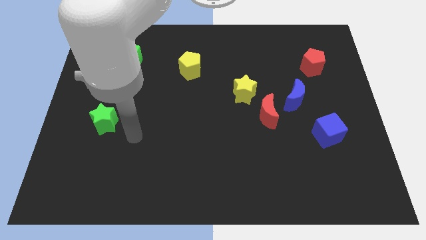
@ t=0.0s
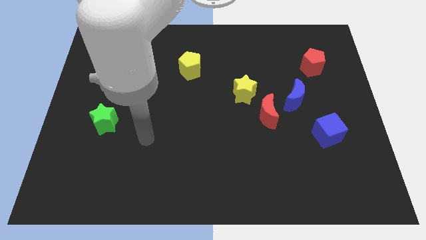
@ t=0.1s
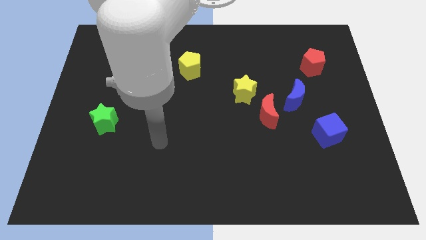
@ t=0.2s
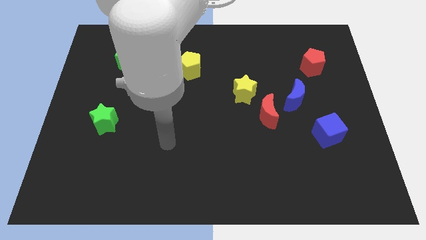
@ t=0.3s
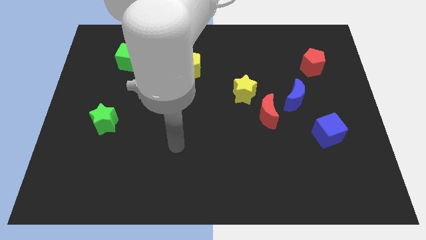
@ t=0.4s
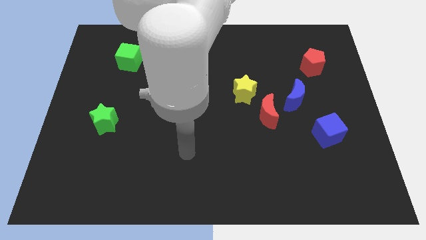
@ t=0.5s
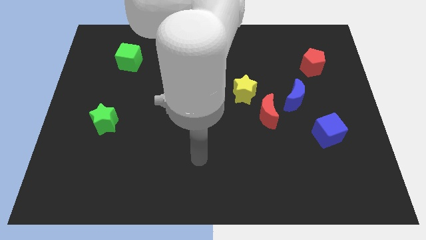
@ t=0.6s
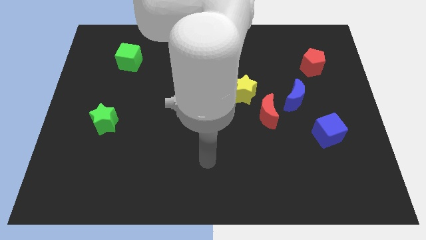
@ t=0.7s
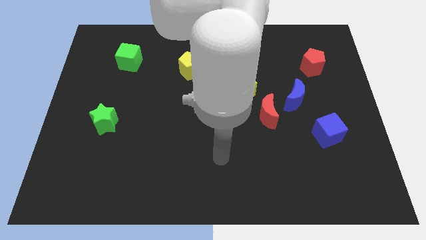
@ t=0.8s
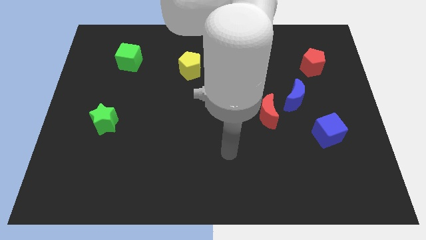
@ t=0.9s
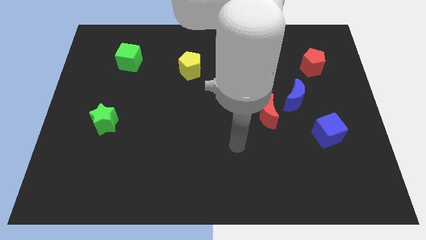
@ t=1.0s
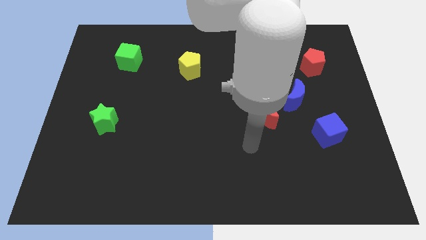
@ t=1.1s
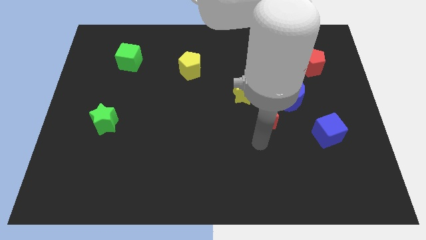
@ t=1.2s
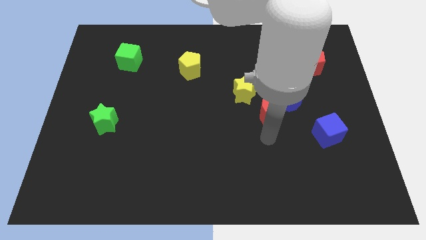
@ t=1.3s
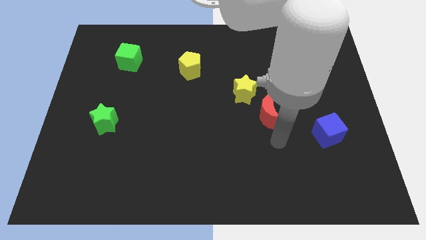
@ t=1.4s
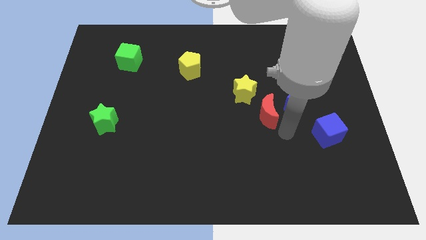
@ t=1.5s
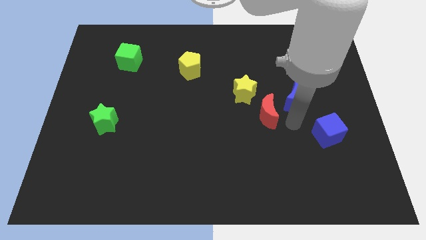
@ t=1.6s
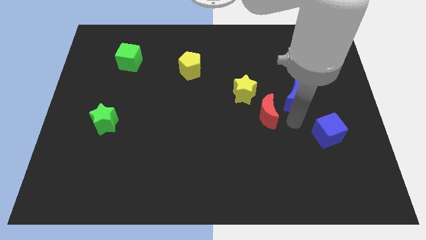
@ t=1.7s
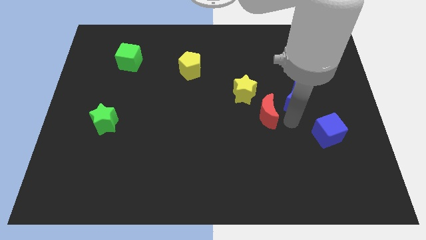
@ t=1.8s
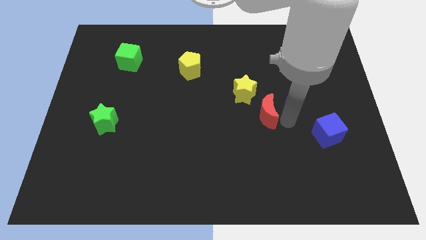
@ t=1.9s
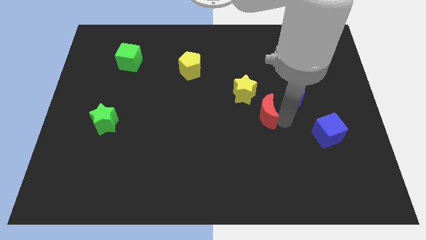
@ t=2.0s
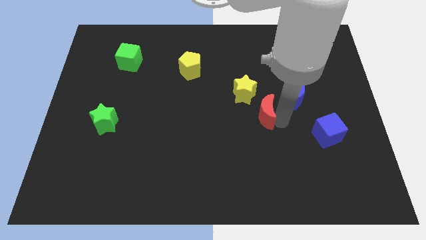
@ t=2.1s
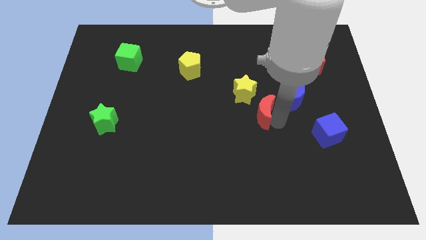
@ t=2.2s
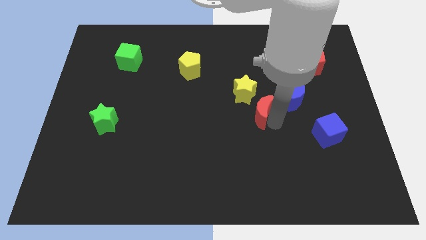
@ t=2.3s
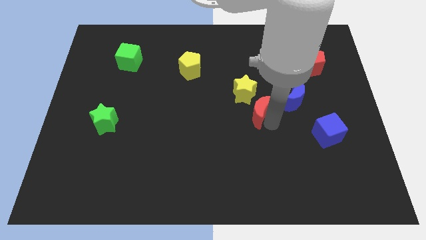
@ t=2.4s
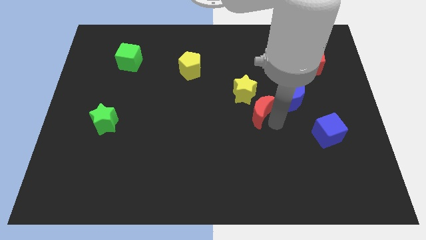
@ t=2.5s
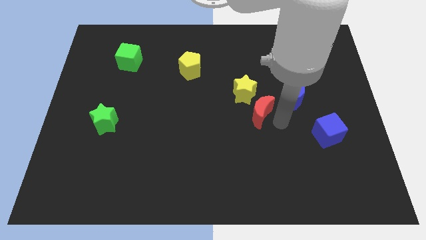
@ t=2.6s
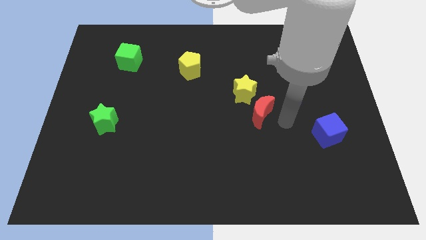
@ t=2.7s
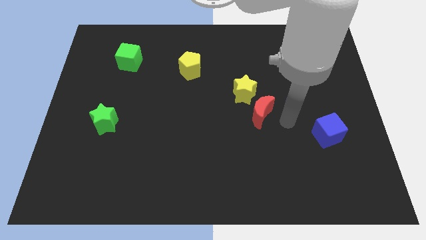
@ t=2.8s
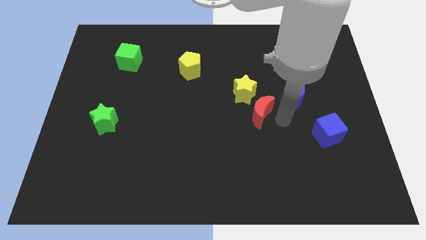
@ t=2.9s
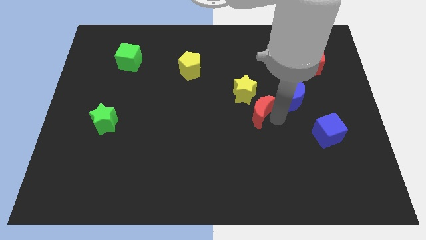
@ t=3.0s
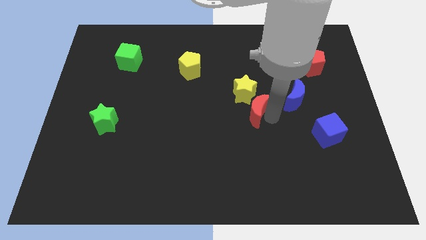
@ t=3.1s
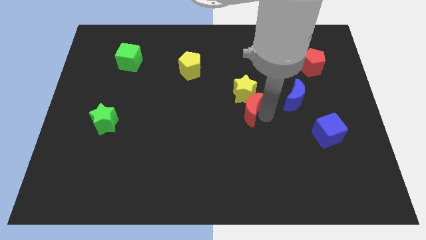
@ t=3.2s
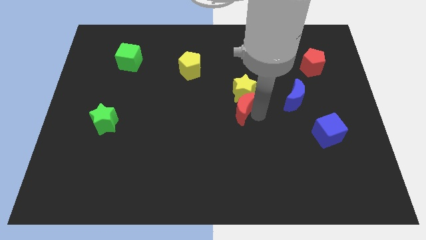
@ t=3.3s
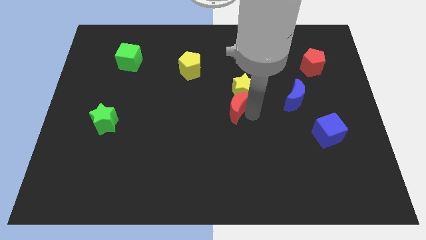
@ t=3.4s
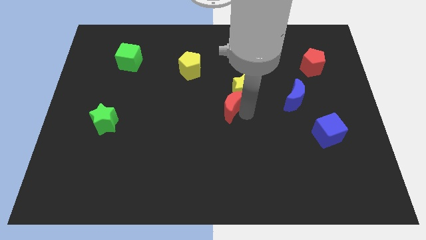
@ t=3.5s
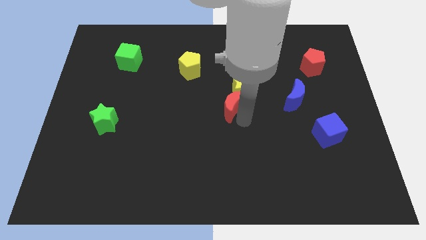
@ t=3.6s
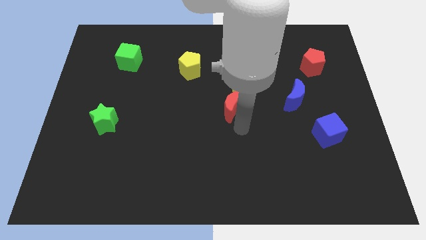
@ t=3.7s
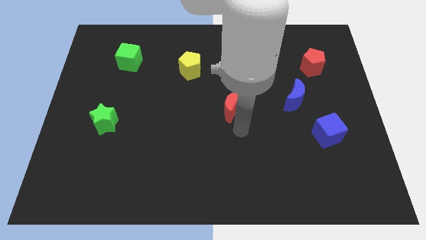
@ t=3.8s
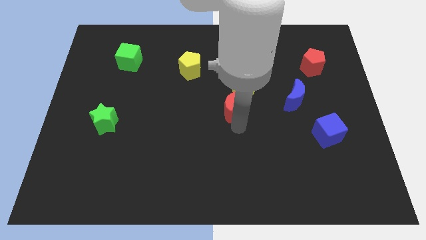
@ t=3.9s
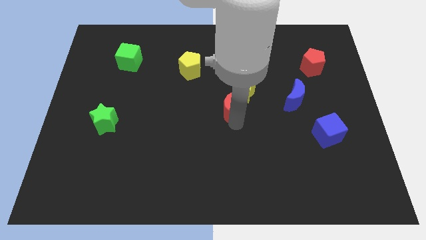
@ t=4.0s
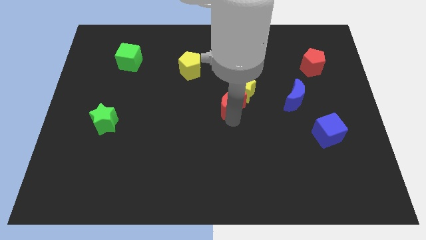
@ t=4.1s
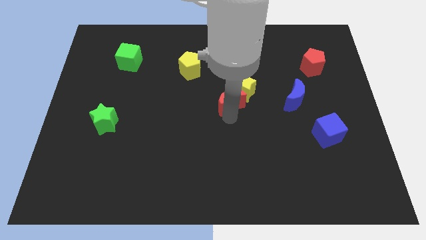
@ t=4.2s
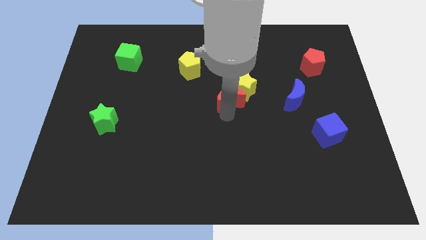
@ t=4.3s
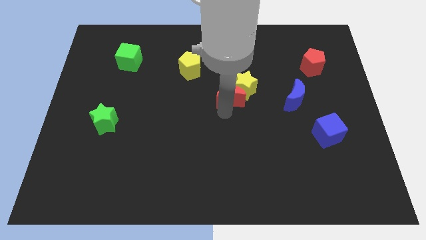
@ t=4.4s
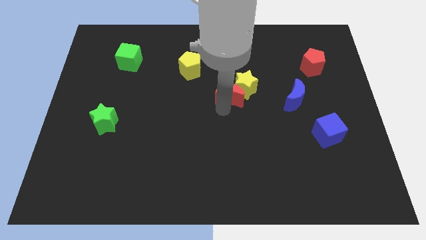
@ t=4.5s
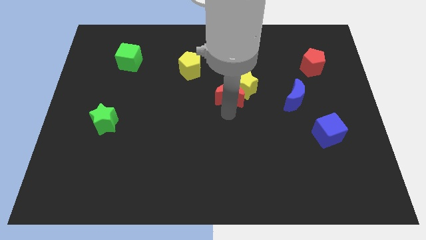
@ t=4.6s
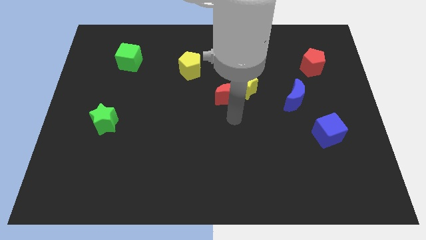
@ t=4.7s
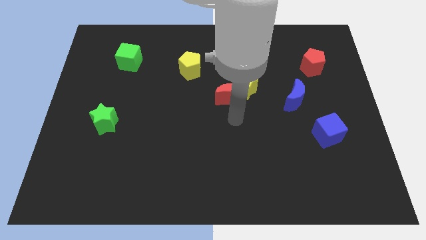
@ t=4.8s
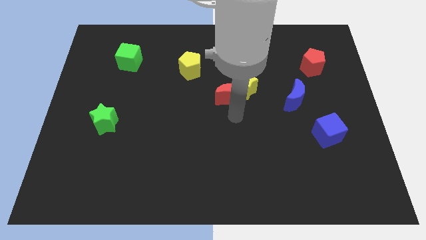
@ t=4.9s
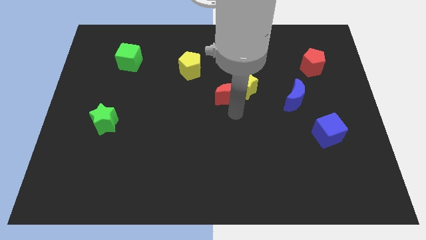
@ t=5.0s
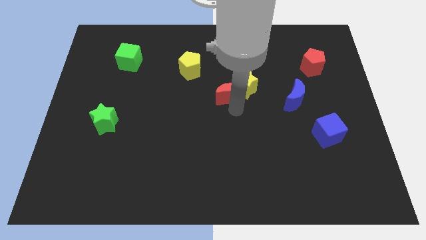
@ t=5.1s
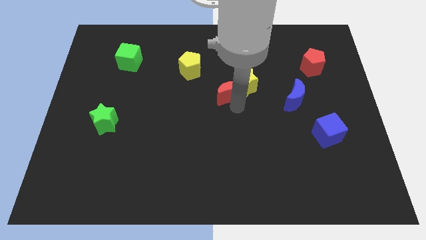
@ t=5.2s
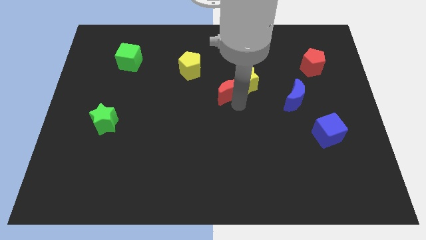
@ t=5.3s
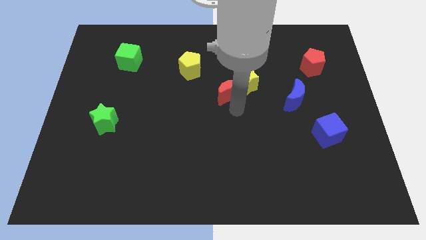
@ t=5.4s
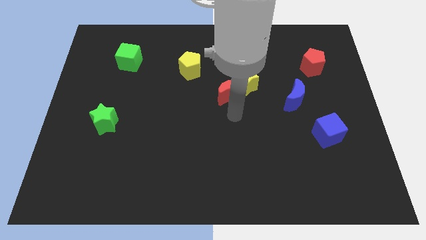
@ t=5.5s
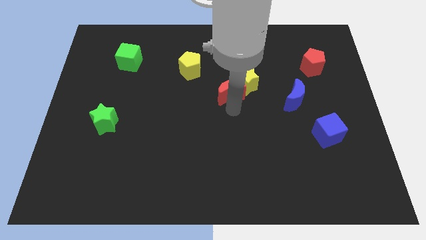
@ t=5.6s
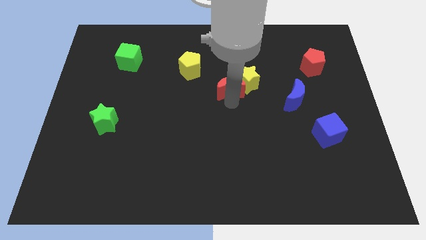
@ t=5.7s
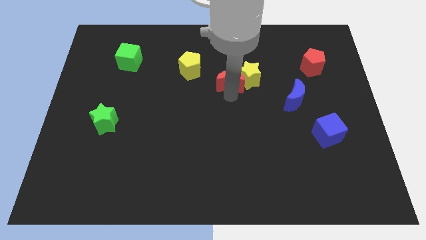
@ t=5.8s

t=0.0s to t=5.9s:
slide the red moon to the top left of the yellow star

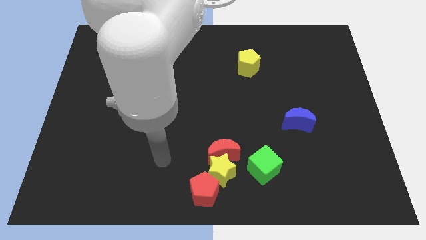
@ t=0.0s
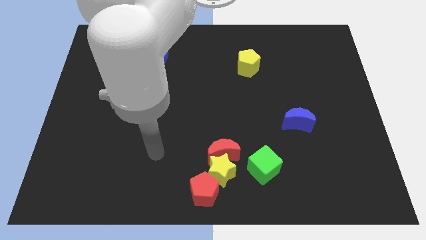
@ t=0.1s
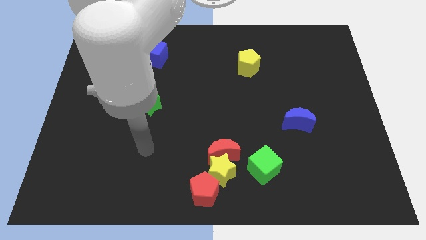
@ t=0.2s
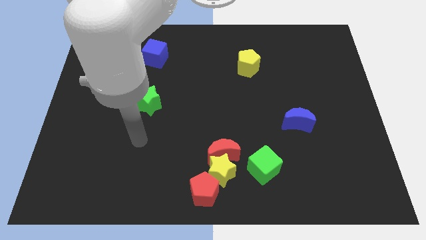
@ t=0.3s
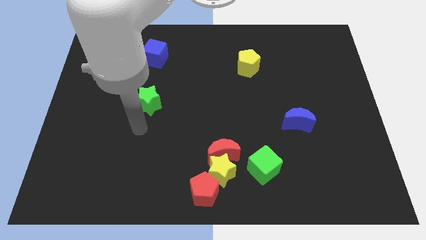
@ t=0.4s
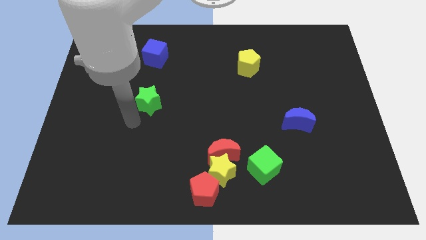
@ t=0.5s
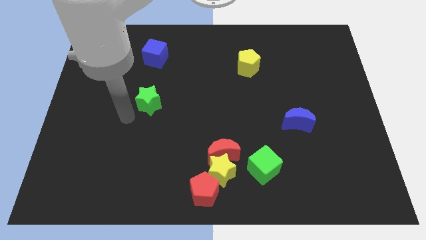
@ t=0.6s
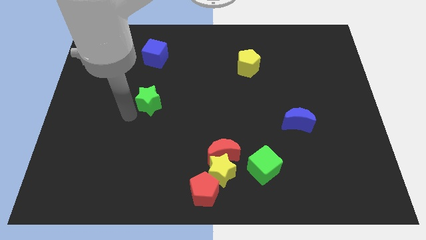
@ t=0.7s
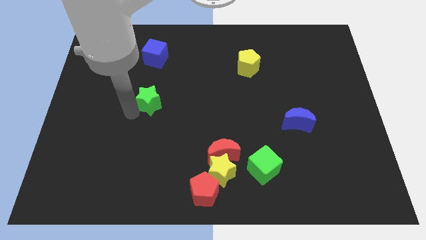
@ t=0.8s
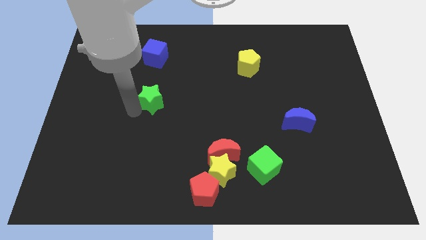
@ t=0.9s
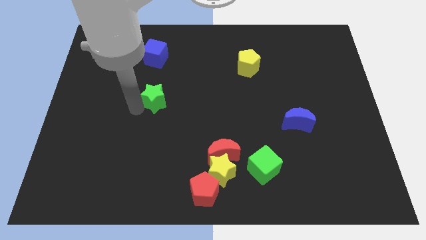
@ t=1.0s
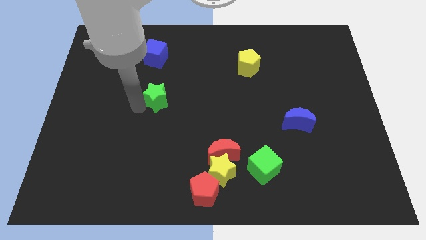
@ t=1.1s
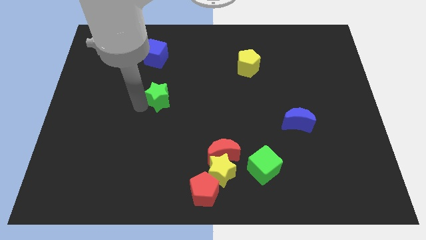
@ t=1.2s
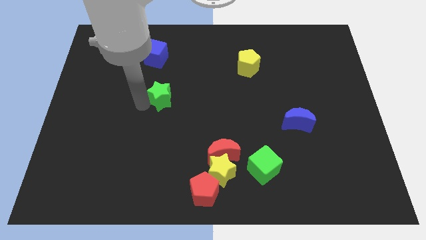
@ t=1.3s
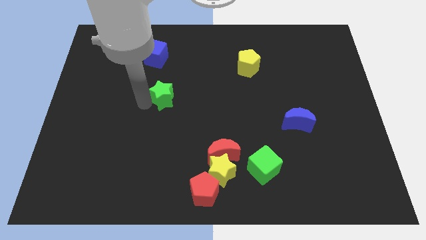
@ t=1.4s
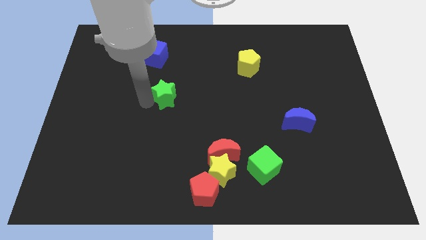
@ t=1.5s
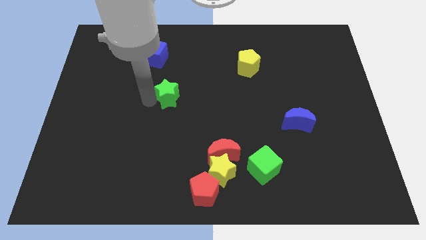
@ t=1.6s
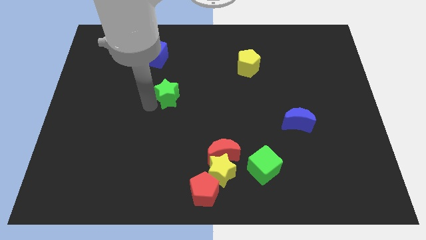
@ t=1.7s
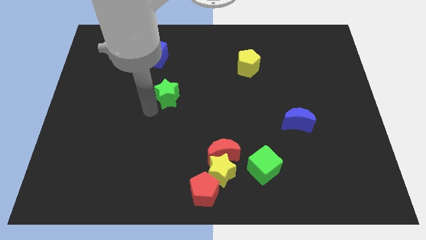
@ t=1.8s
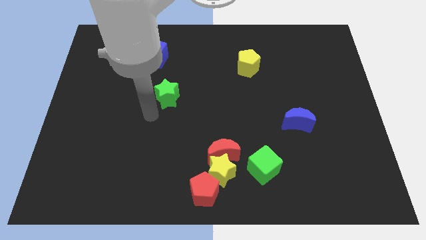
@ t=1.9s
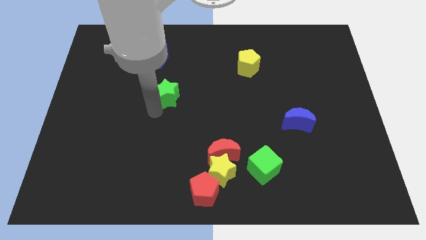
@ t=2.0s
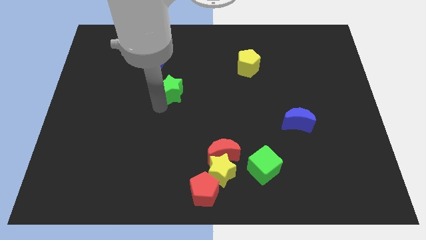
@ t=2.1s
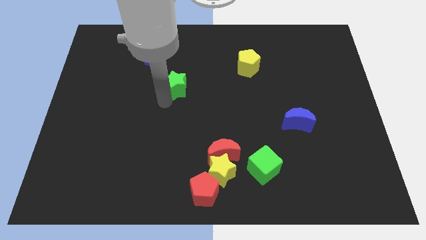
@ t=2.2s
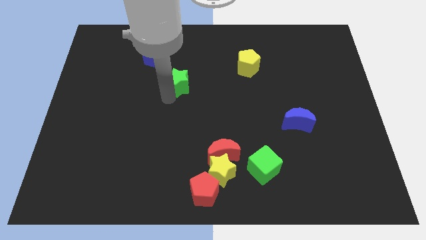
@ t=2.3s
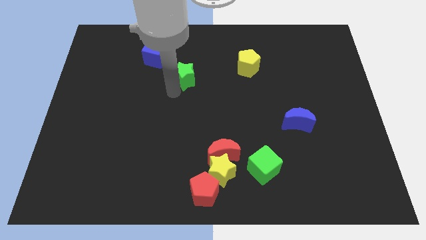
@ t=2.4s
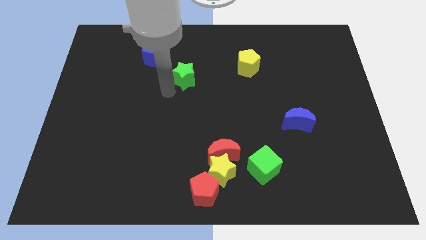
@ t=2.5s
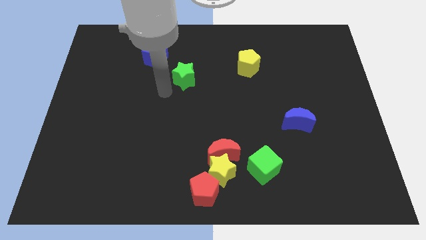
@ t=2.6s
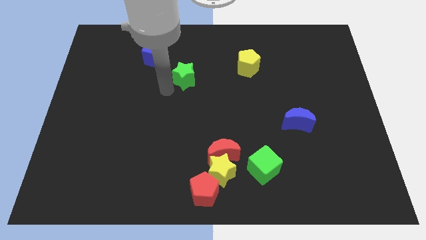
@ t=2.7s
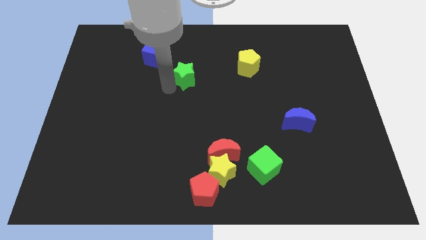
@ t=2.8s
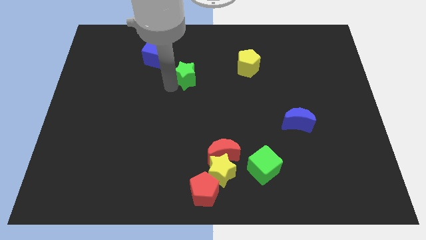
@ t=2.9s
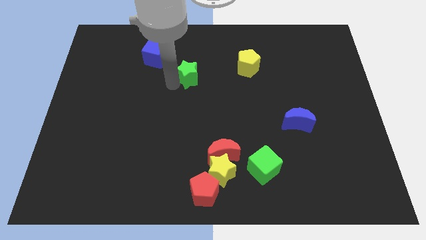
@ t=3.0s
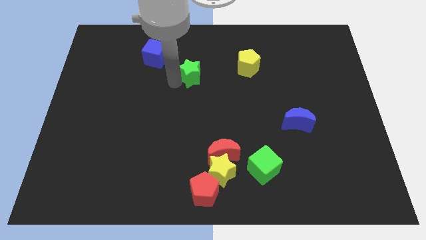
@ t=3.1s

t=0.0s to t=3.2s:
move the green star left of the yellow pentagon
